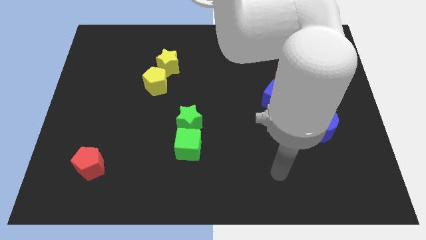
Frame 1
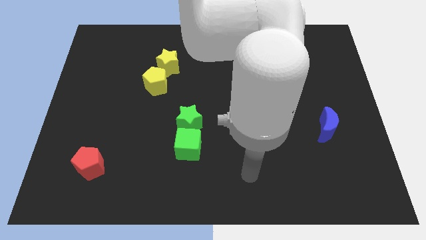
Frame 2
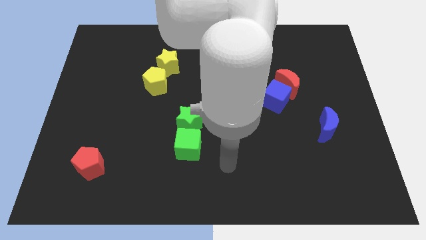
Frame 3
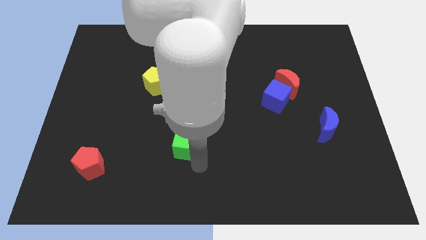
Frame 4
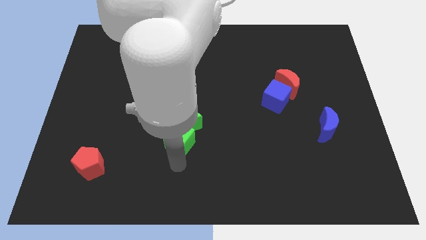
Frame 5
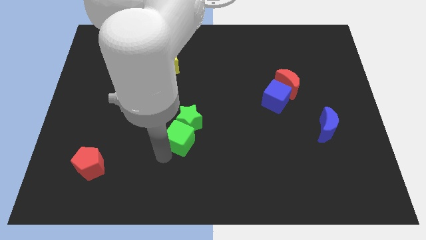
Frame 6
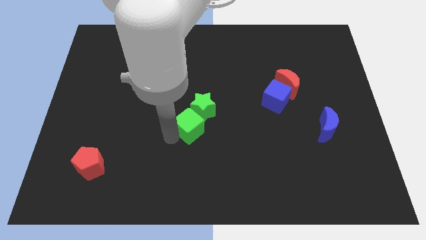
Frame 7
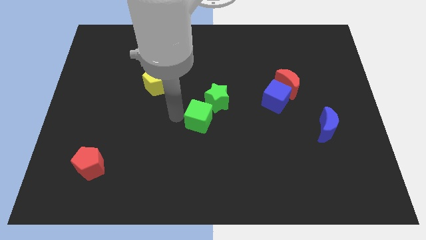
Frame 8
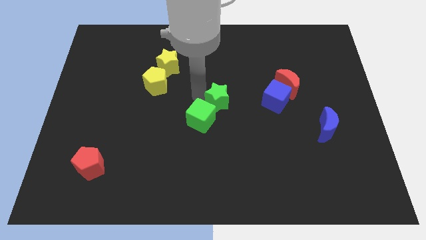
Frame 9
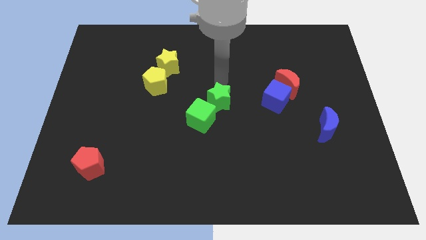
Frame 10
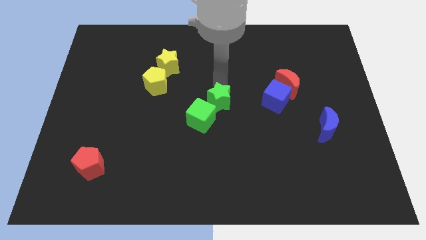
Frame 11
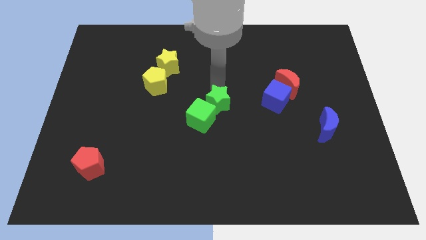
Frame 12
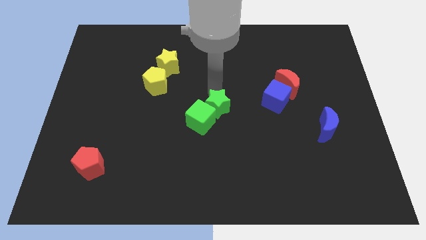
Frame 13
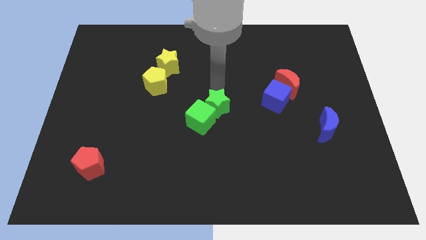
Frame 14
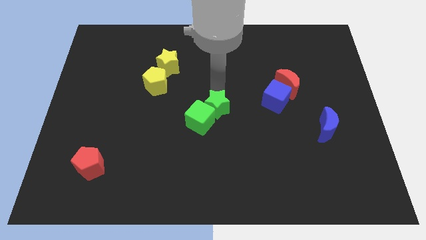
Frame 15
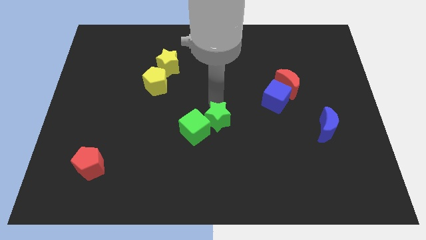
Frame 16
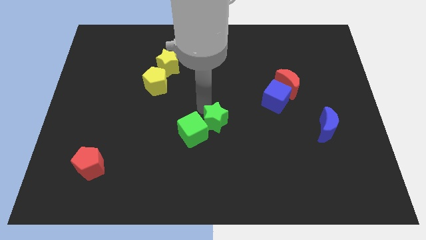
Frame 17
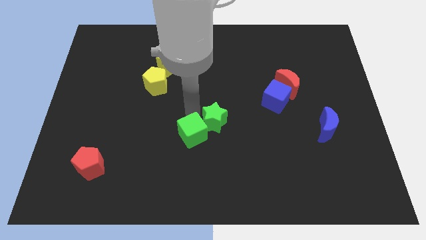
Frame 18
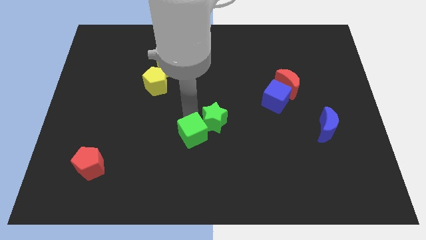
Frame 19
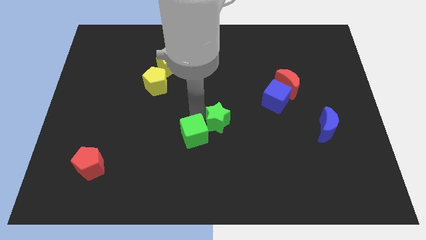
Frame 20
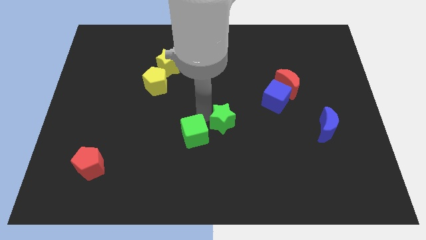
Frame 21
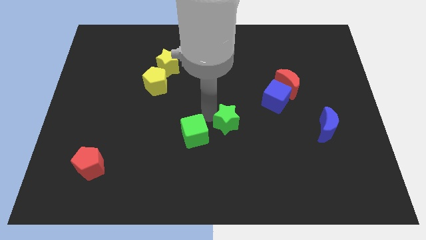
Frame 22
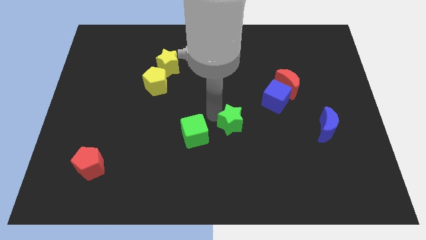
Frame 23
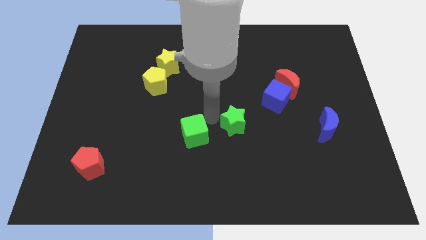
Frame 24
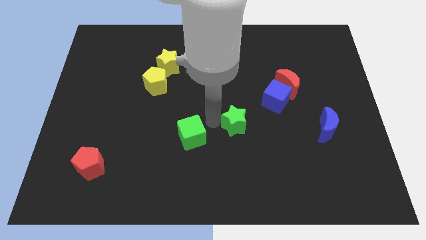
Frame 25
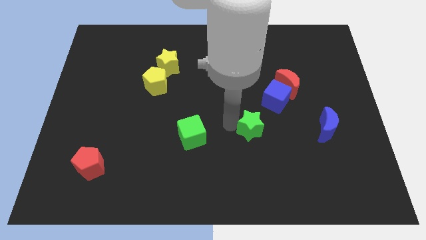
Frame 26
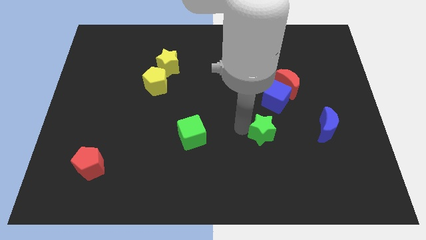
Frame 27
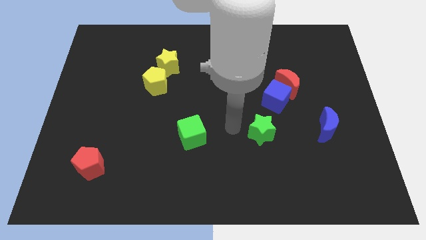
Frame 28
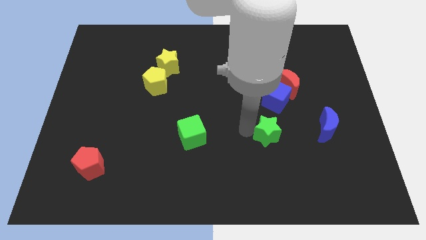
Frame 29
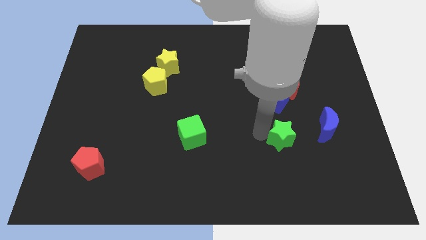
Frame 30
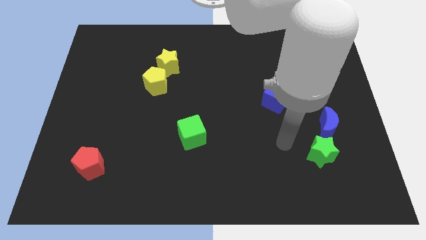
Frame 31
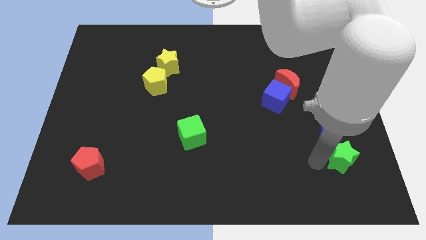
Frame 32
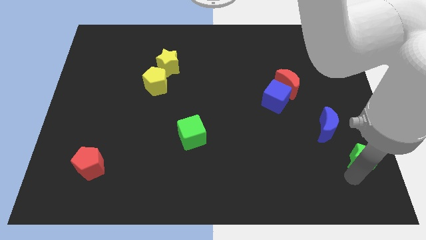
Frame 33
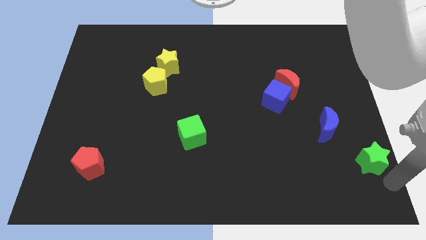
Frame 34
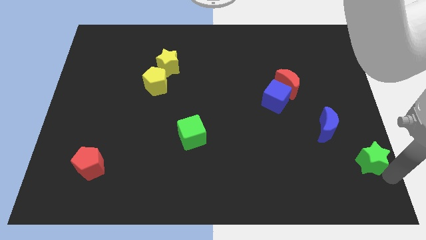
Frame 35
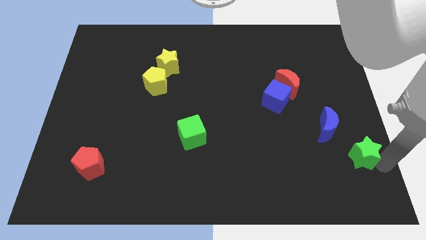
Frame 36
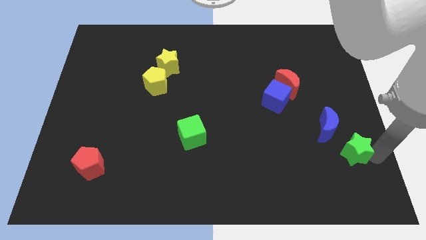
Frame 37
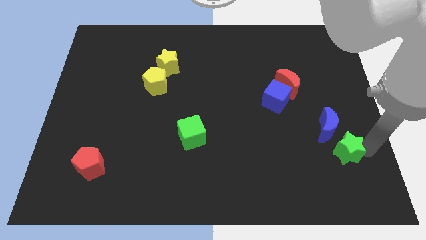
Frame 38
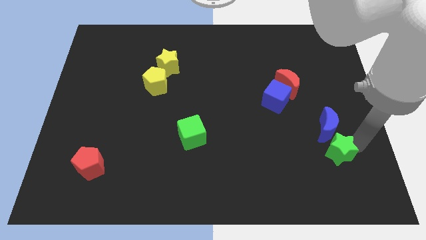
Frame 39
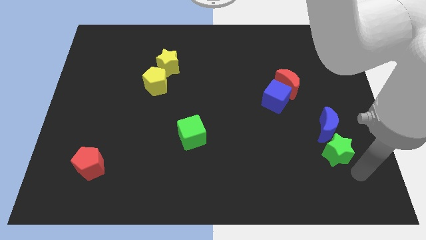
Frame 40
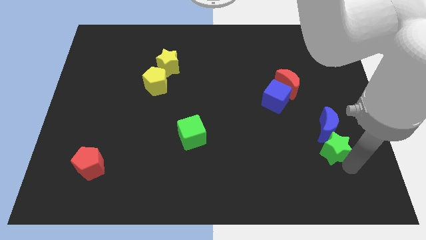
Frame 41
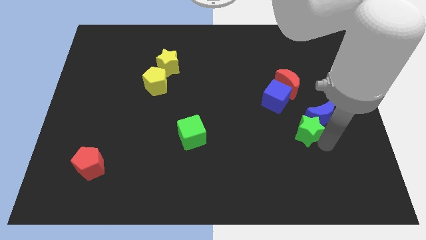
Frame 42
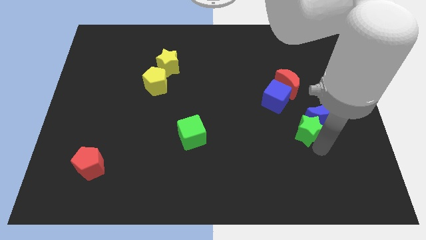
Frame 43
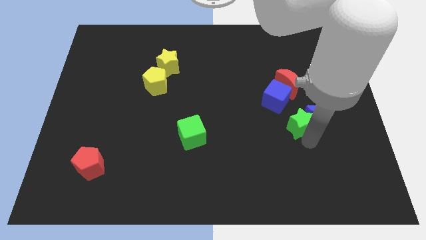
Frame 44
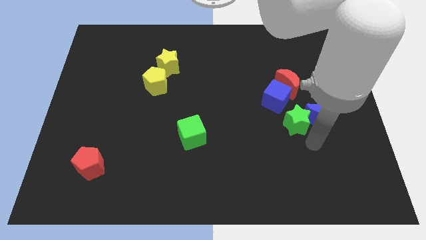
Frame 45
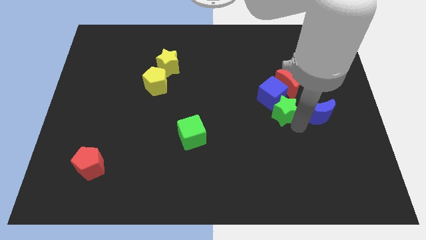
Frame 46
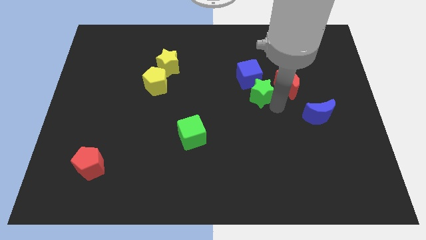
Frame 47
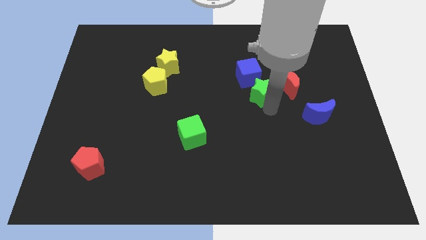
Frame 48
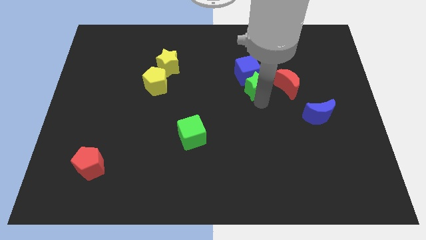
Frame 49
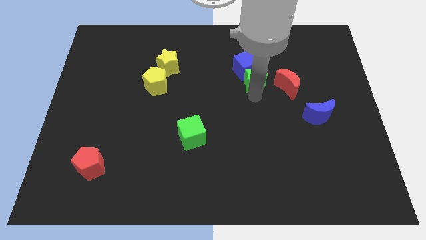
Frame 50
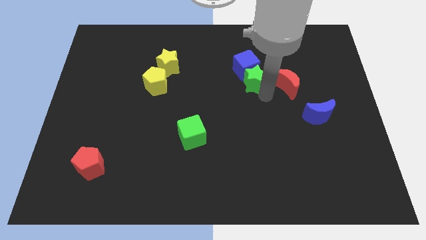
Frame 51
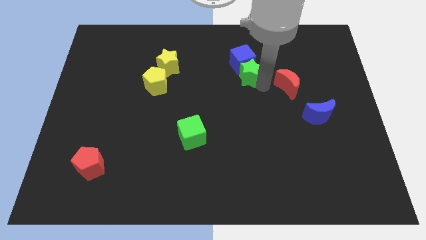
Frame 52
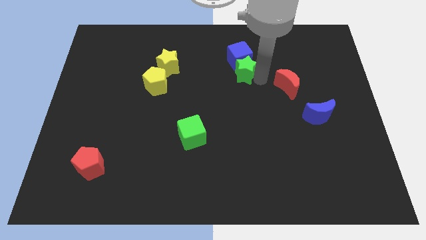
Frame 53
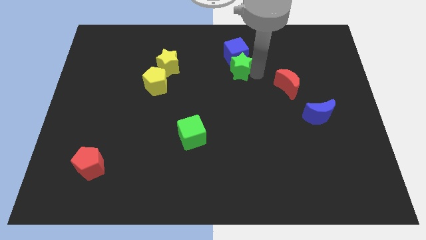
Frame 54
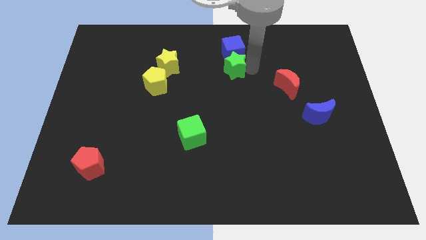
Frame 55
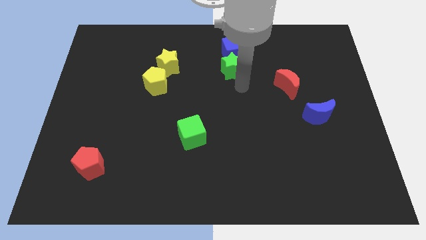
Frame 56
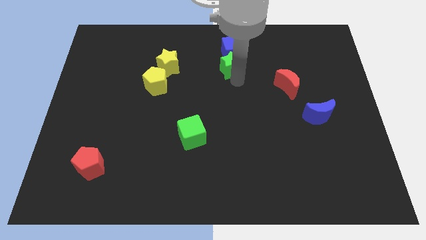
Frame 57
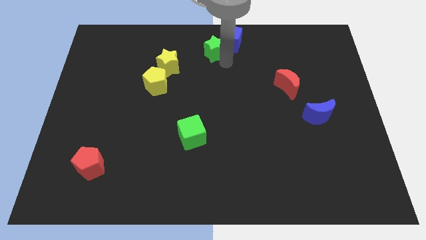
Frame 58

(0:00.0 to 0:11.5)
push the green star to the top

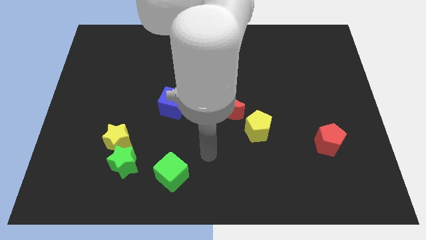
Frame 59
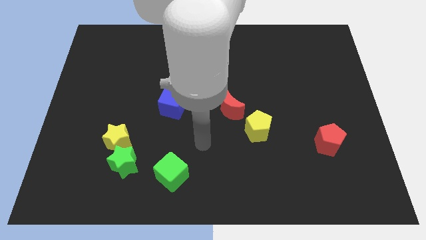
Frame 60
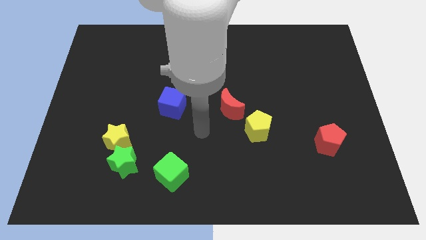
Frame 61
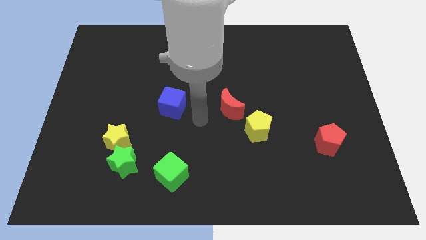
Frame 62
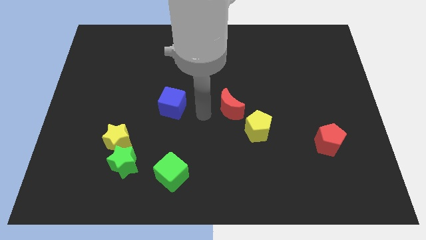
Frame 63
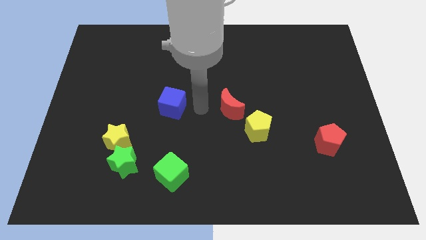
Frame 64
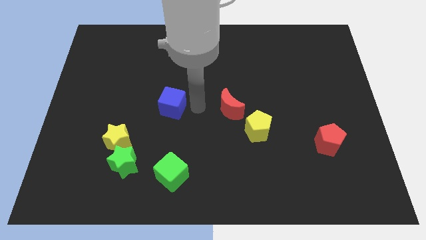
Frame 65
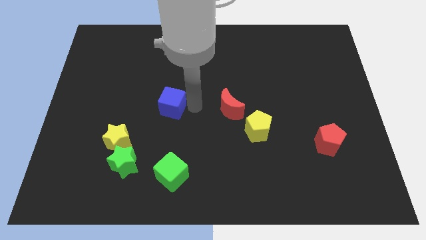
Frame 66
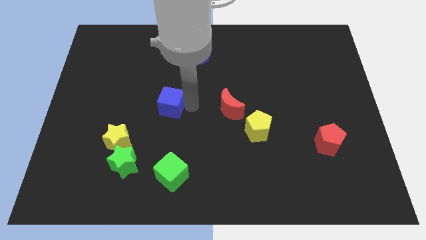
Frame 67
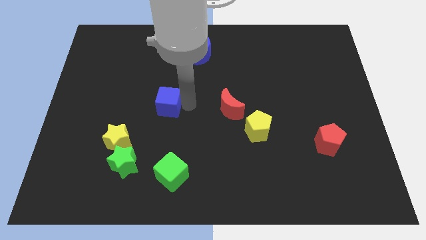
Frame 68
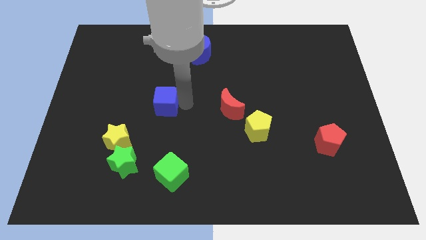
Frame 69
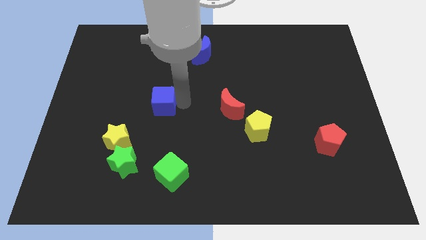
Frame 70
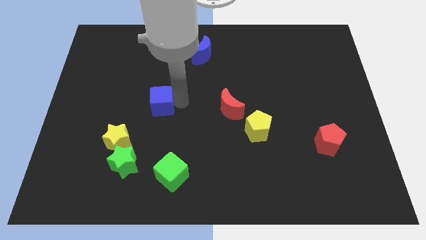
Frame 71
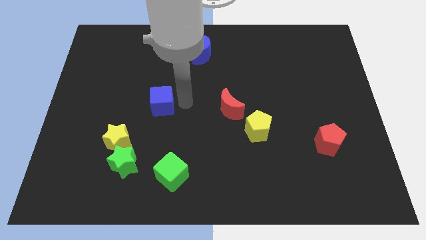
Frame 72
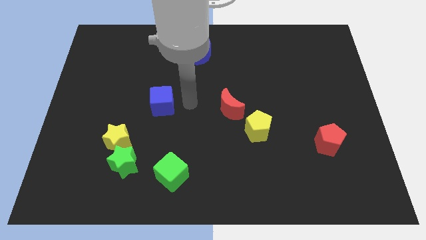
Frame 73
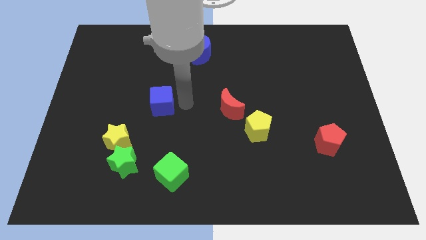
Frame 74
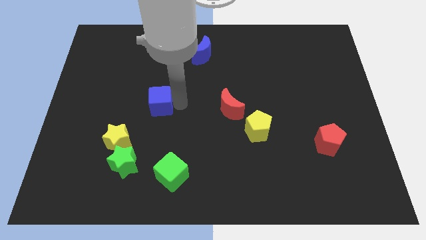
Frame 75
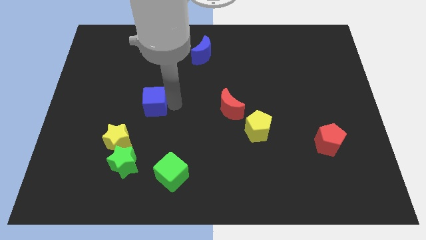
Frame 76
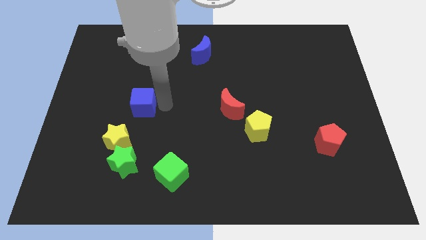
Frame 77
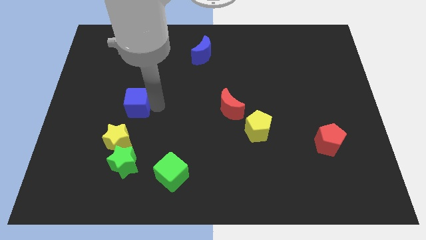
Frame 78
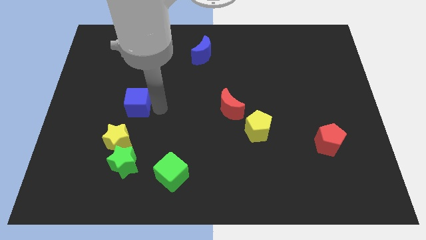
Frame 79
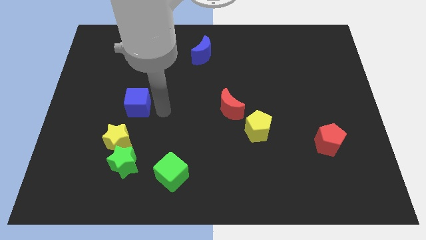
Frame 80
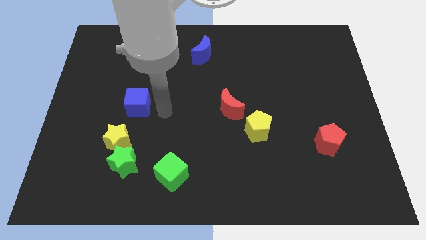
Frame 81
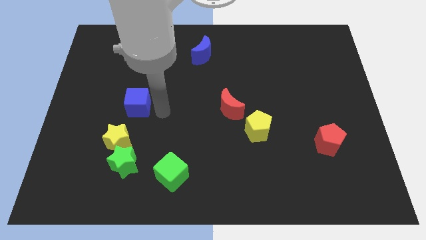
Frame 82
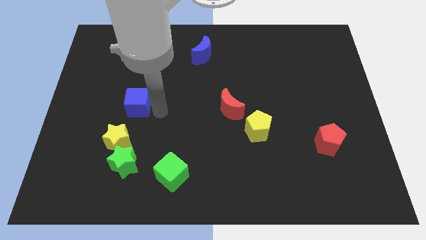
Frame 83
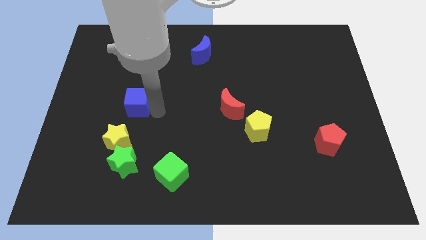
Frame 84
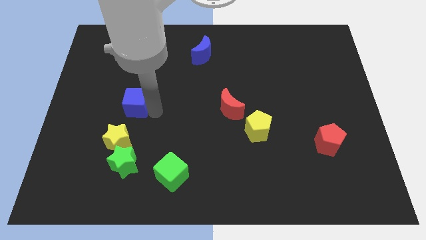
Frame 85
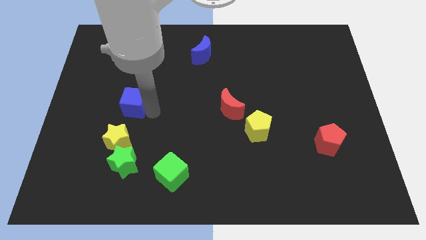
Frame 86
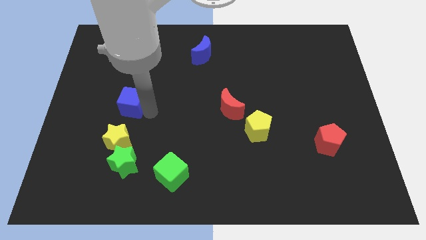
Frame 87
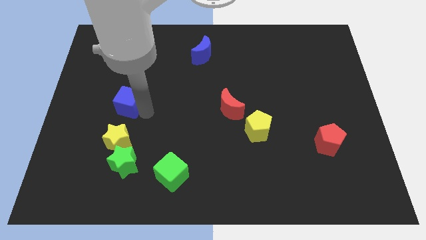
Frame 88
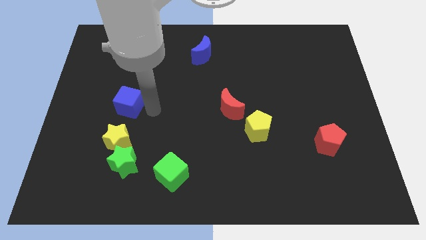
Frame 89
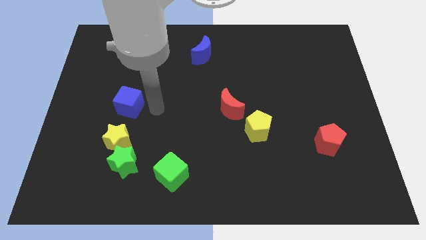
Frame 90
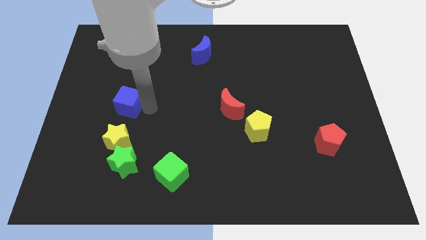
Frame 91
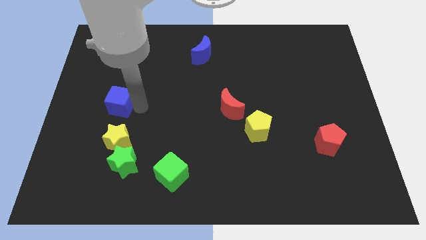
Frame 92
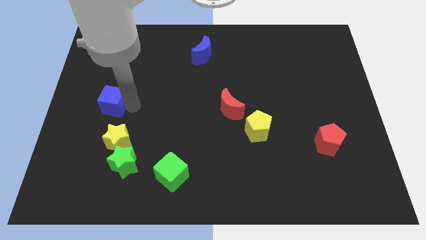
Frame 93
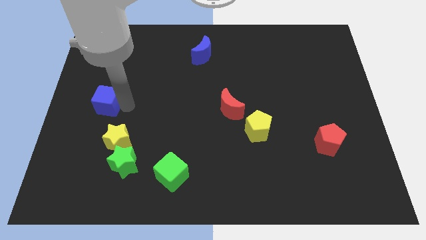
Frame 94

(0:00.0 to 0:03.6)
put the blue cube to the left side
